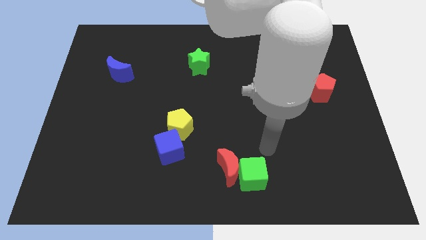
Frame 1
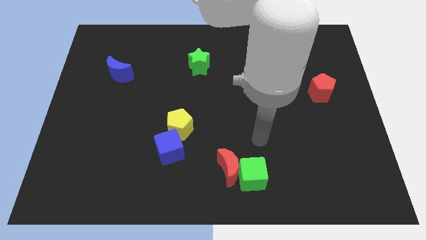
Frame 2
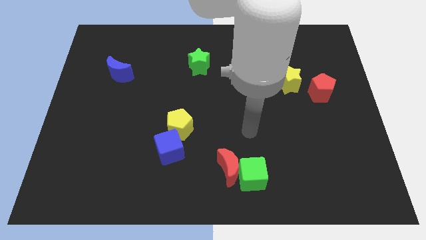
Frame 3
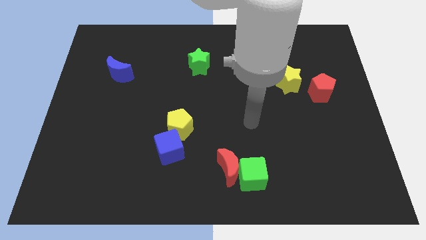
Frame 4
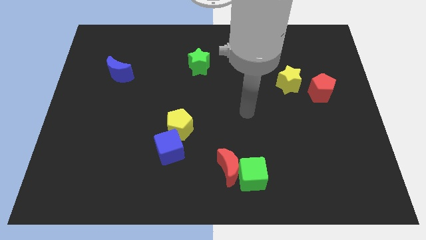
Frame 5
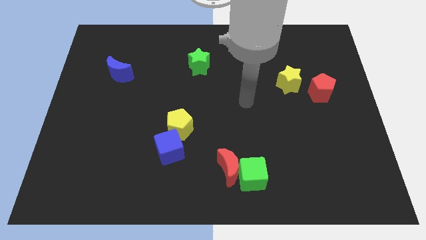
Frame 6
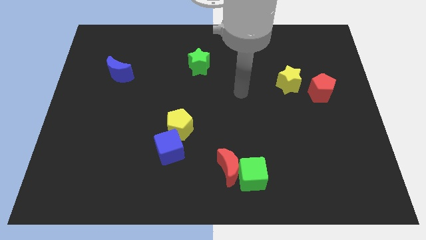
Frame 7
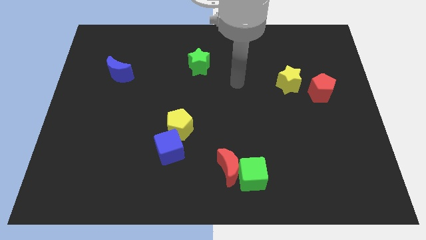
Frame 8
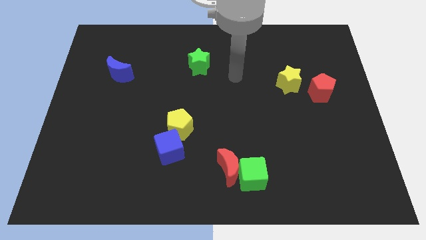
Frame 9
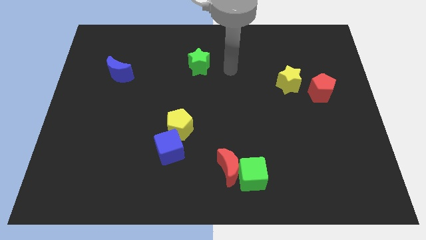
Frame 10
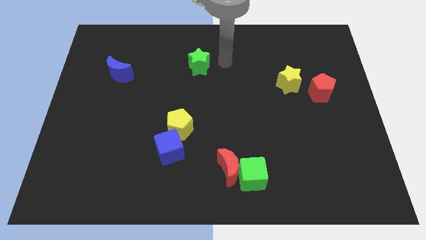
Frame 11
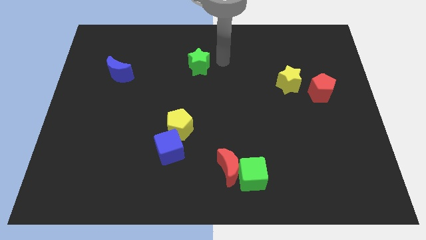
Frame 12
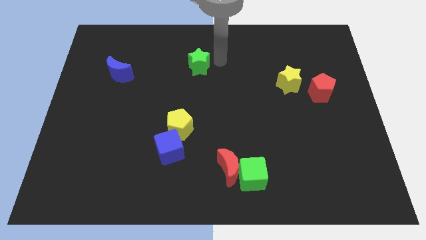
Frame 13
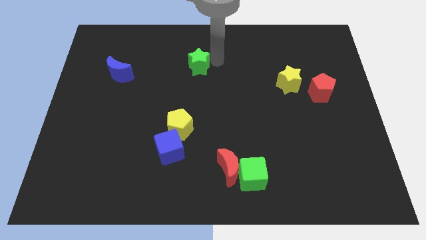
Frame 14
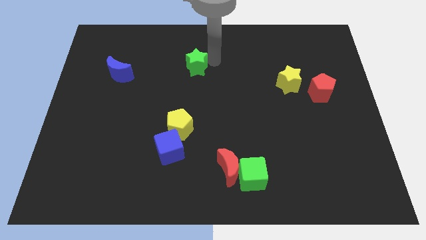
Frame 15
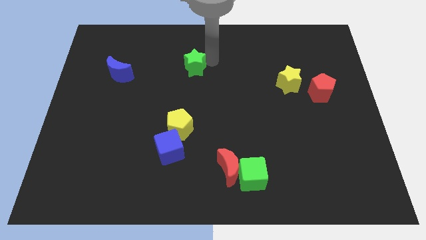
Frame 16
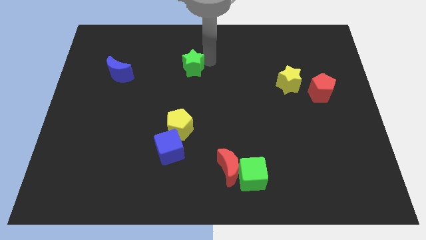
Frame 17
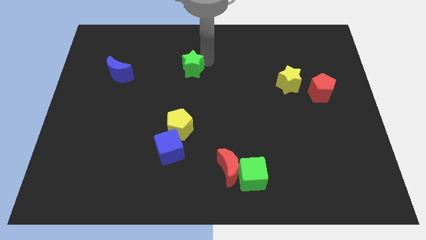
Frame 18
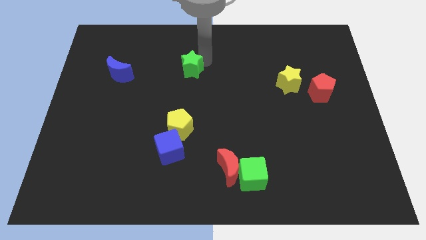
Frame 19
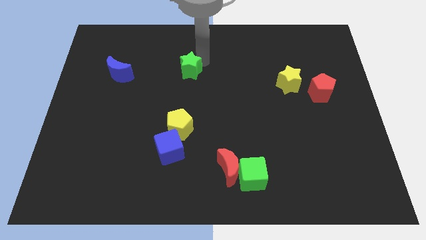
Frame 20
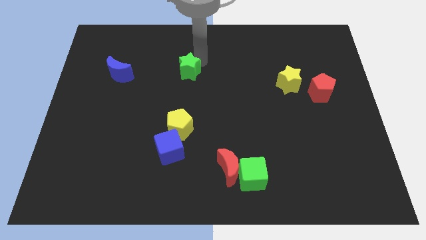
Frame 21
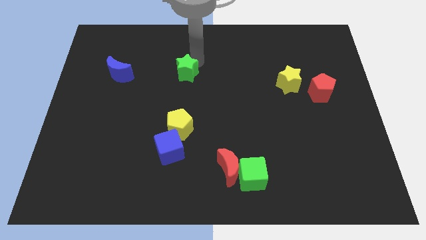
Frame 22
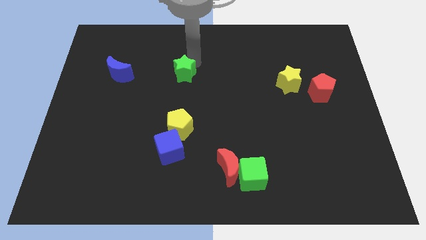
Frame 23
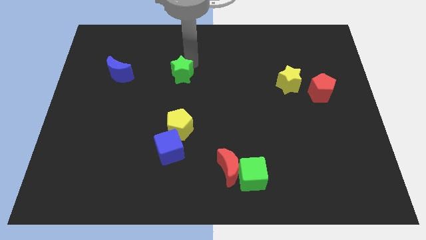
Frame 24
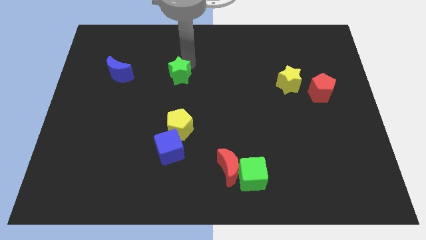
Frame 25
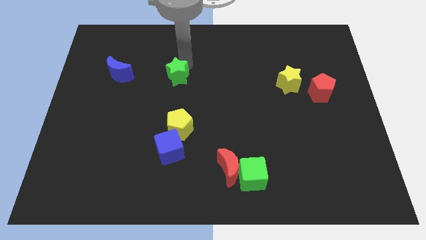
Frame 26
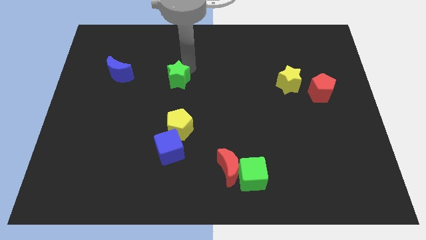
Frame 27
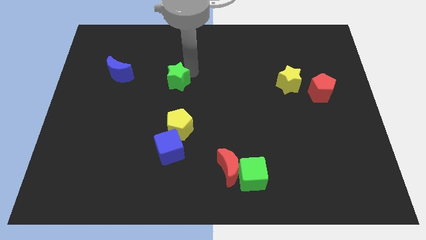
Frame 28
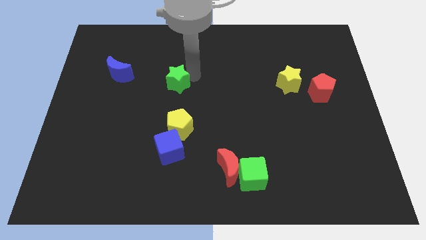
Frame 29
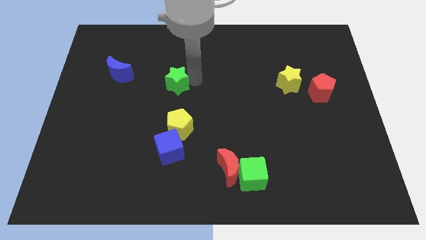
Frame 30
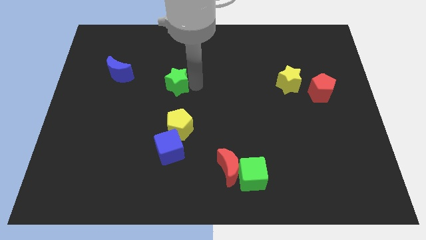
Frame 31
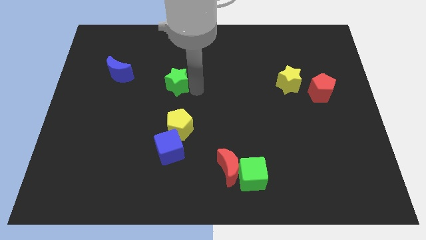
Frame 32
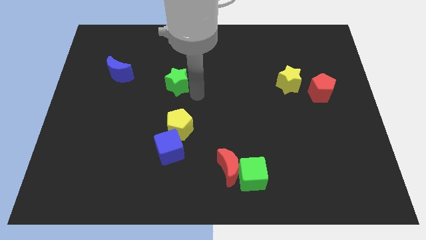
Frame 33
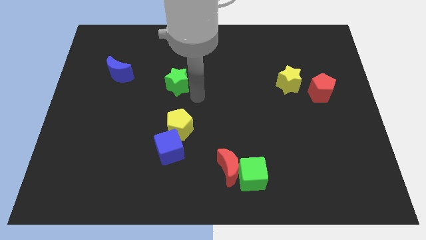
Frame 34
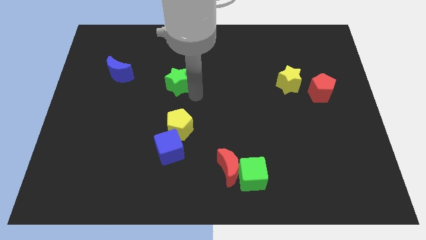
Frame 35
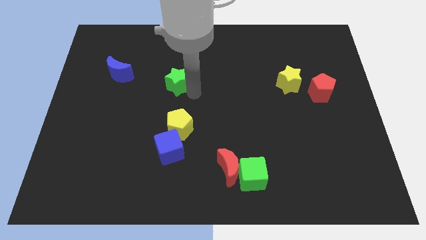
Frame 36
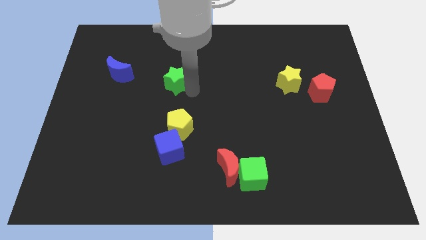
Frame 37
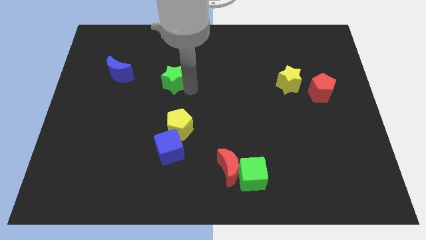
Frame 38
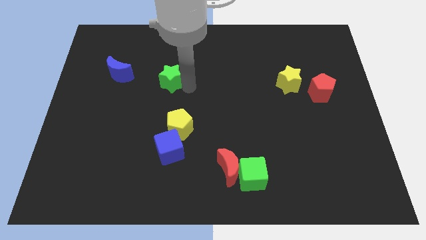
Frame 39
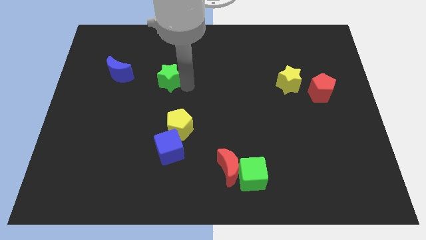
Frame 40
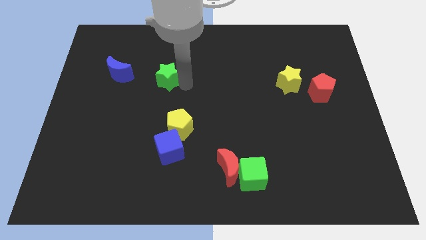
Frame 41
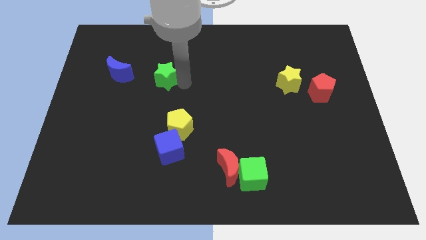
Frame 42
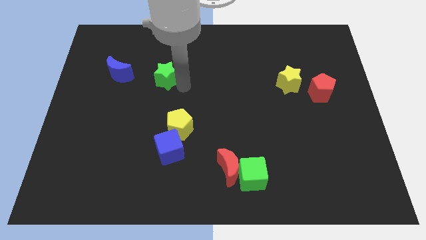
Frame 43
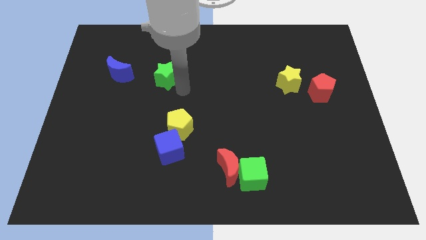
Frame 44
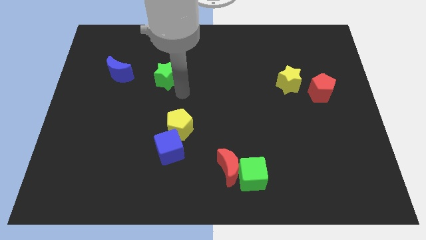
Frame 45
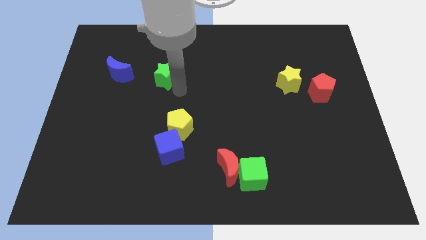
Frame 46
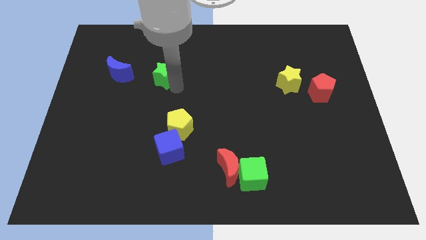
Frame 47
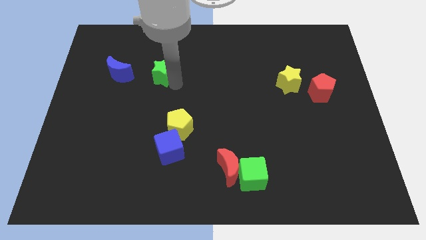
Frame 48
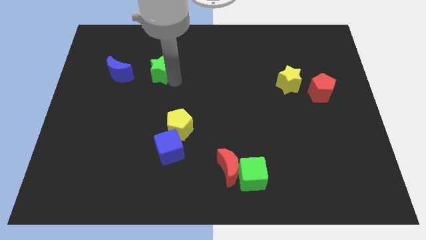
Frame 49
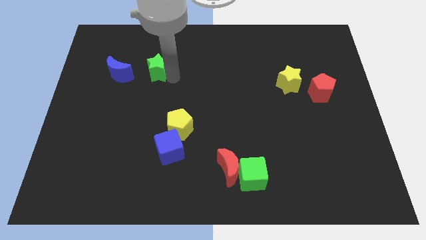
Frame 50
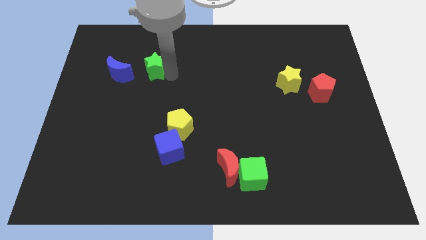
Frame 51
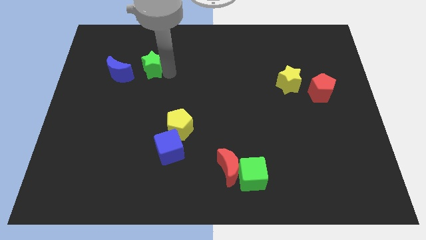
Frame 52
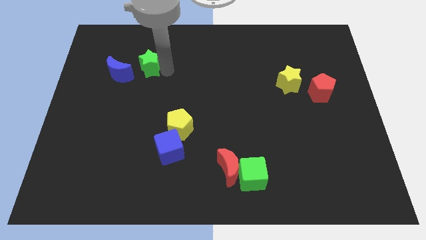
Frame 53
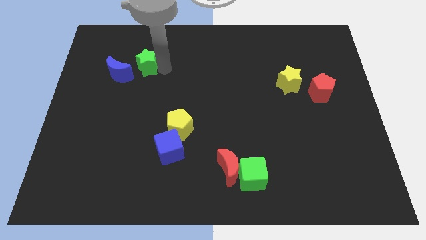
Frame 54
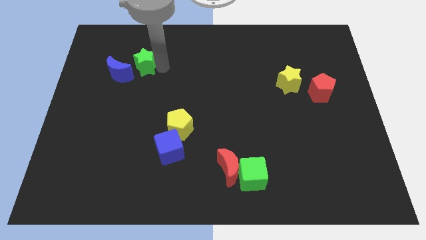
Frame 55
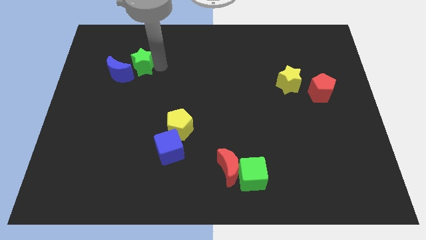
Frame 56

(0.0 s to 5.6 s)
put the green star close to the blue moon

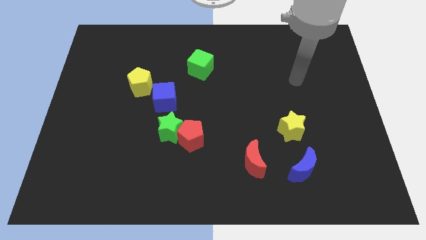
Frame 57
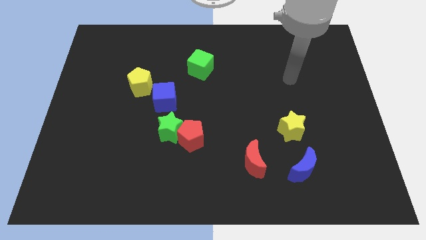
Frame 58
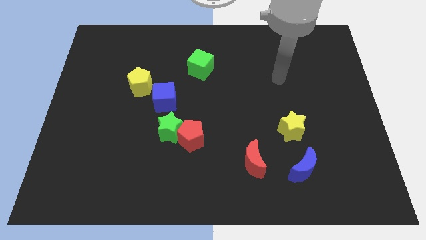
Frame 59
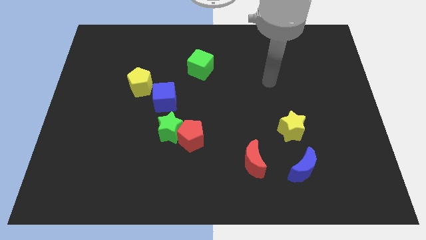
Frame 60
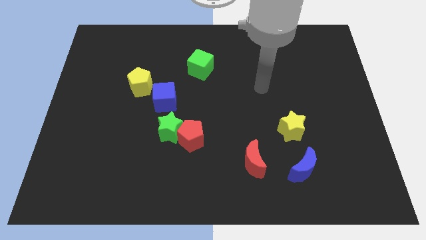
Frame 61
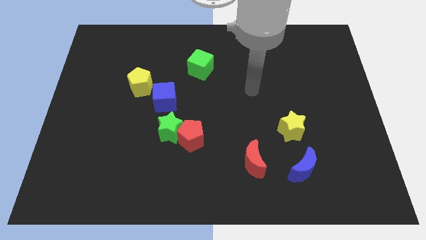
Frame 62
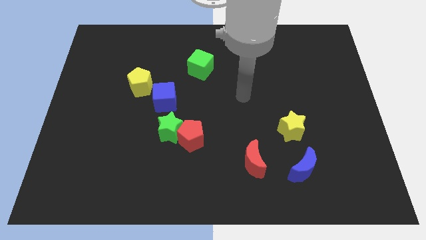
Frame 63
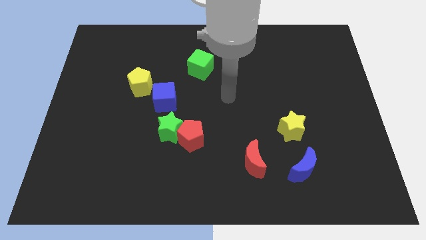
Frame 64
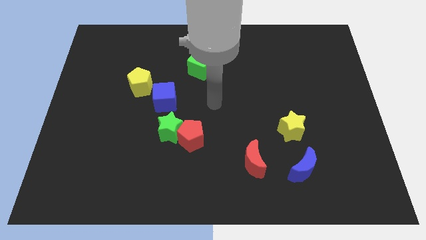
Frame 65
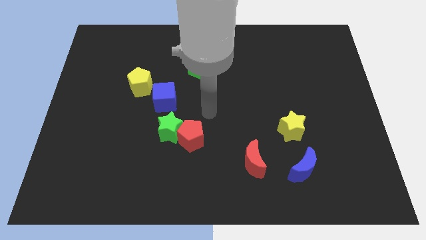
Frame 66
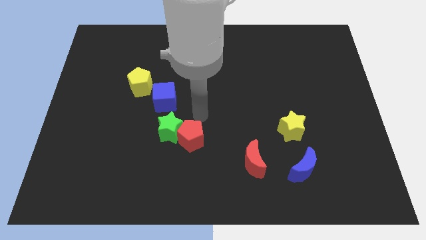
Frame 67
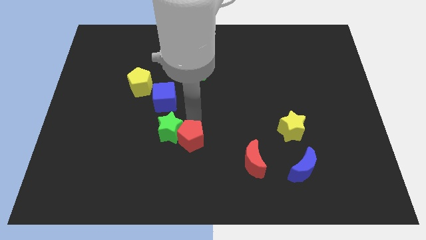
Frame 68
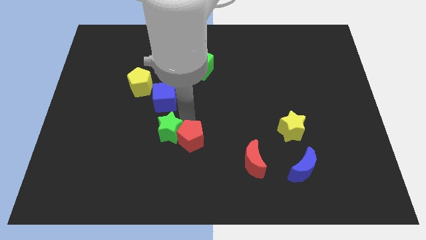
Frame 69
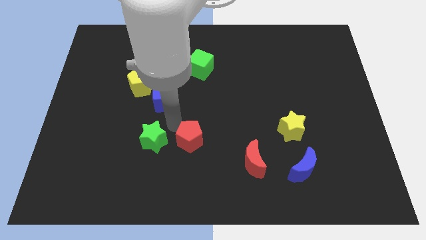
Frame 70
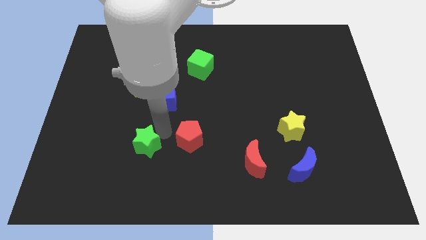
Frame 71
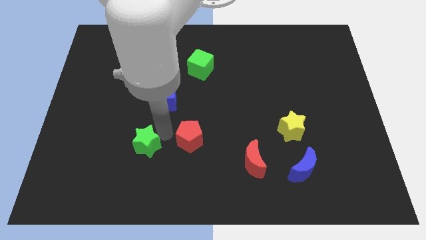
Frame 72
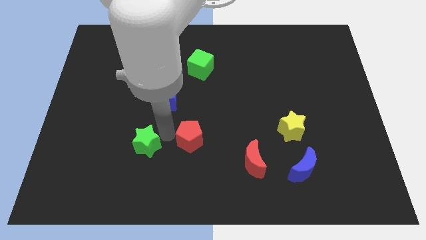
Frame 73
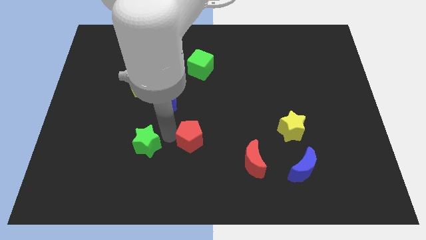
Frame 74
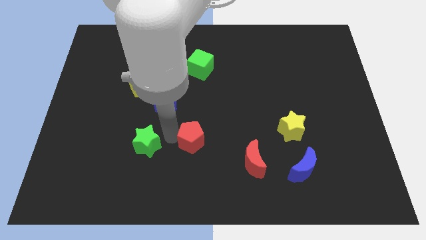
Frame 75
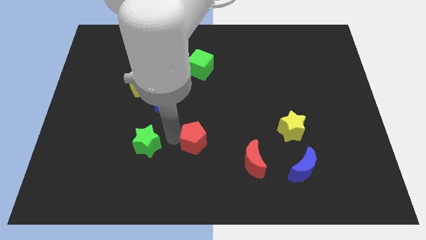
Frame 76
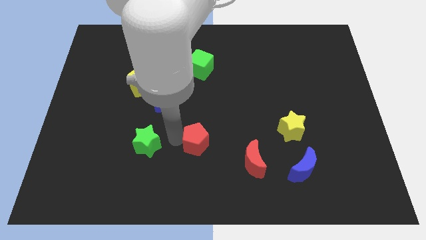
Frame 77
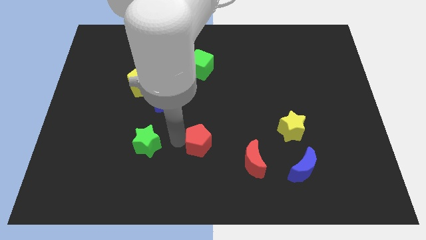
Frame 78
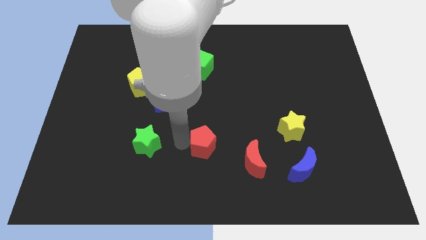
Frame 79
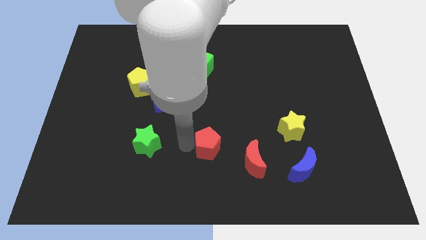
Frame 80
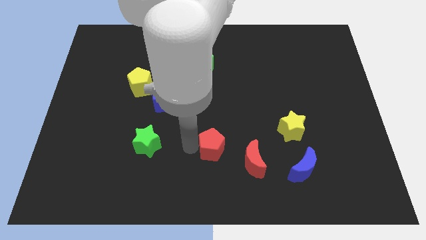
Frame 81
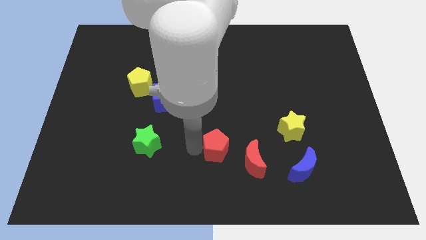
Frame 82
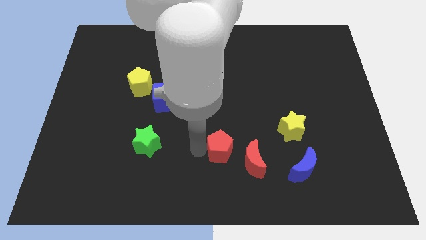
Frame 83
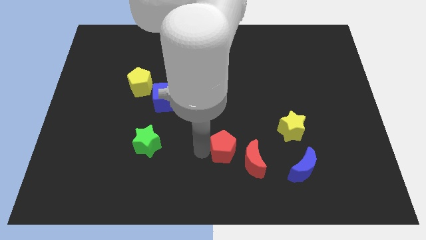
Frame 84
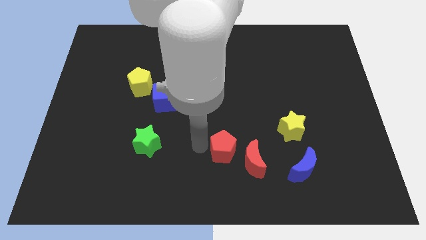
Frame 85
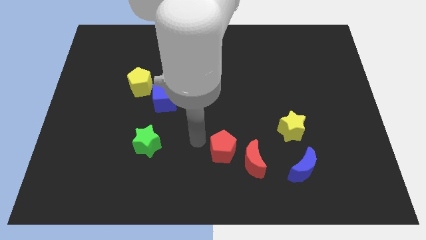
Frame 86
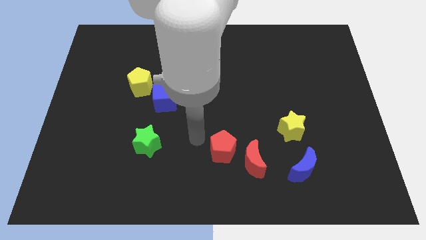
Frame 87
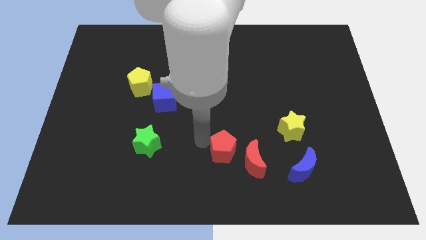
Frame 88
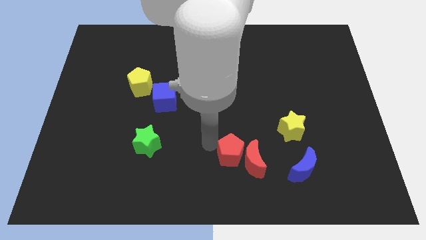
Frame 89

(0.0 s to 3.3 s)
put the red pentagon towards the red moon
